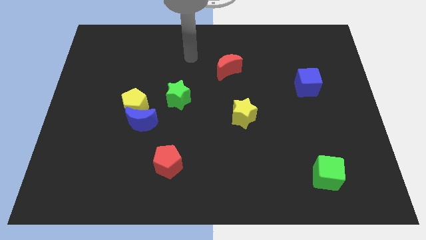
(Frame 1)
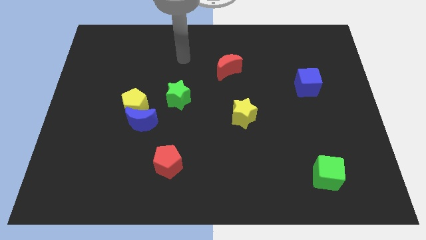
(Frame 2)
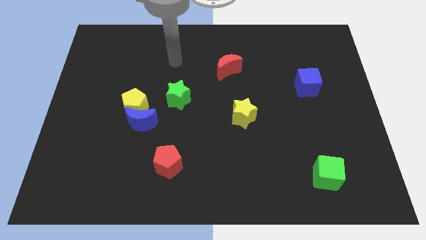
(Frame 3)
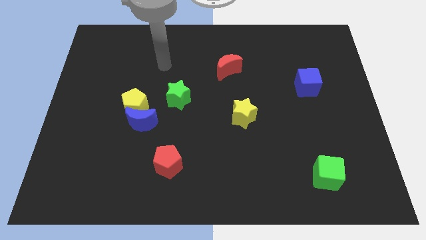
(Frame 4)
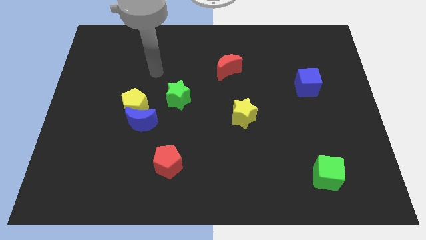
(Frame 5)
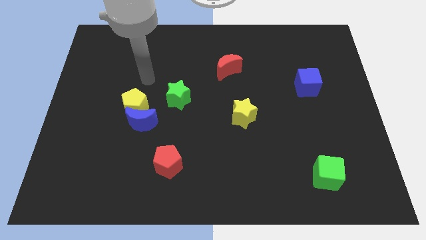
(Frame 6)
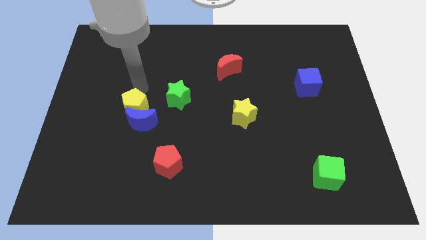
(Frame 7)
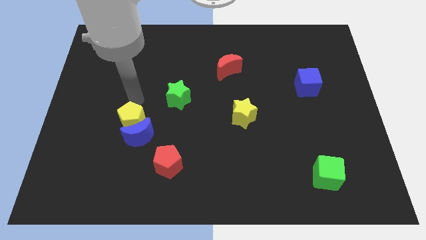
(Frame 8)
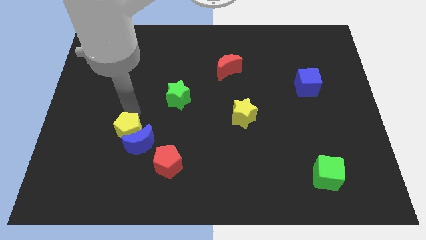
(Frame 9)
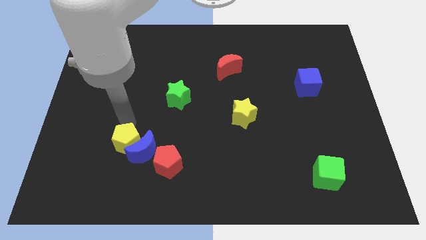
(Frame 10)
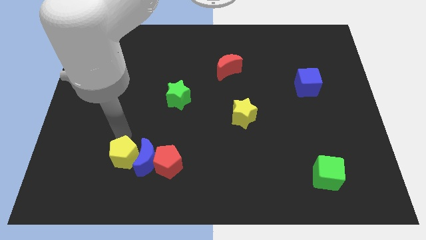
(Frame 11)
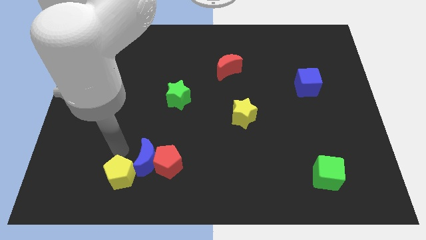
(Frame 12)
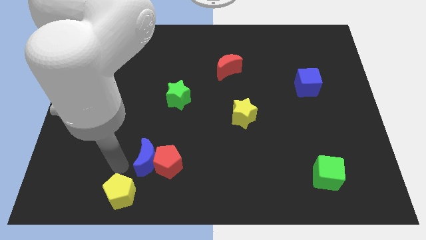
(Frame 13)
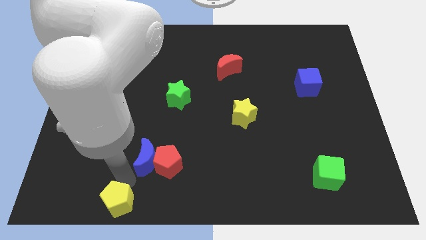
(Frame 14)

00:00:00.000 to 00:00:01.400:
move the blue moon away from the yellow pentagon

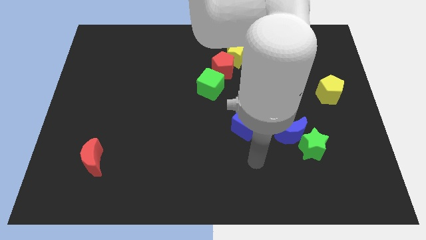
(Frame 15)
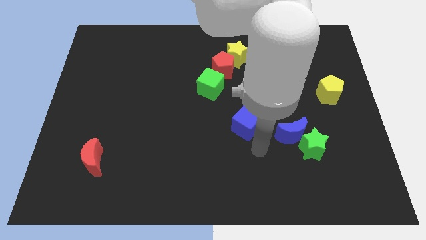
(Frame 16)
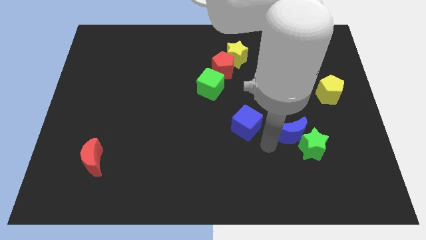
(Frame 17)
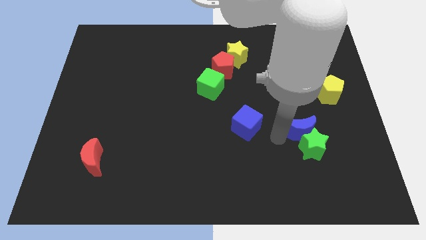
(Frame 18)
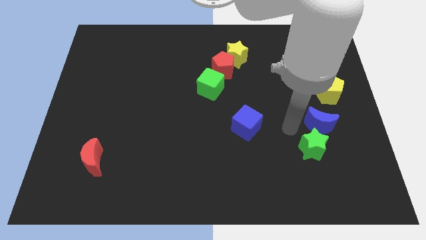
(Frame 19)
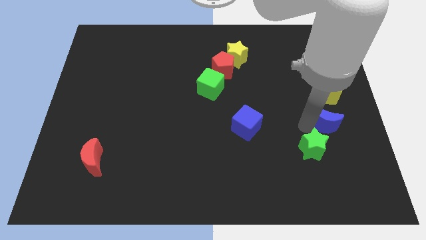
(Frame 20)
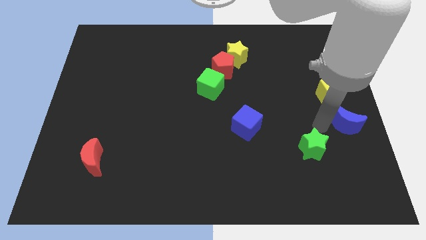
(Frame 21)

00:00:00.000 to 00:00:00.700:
move the green star away from the blue moon

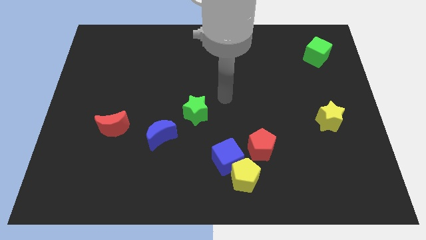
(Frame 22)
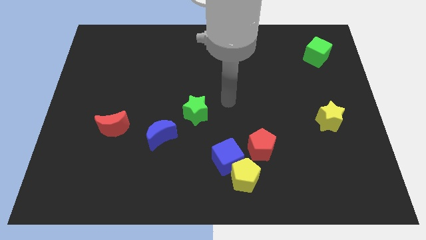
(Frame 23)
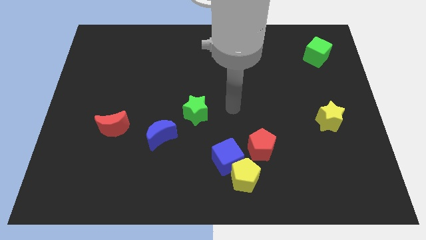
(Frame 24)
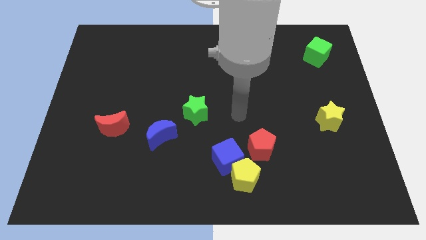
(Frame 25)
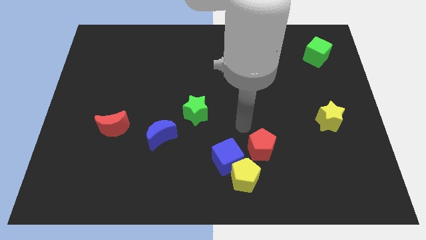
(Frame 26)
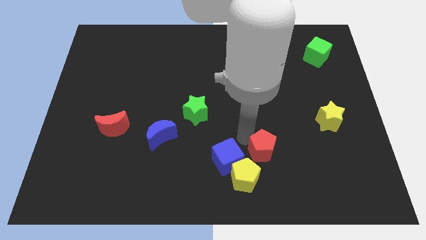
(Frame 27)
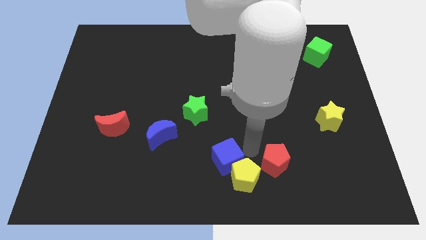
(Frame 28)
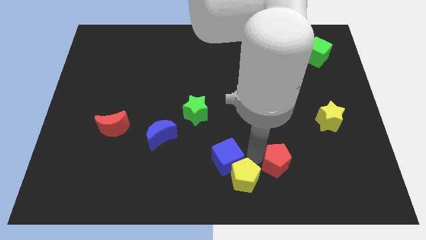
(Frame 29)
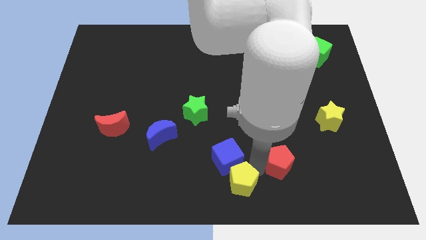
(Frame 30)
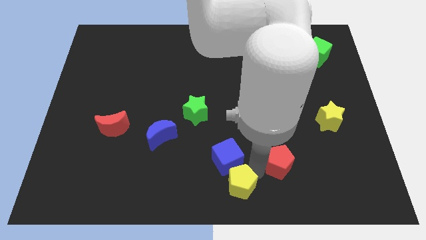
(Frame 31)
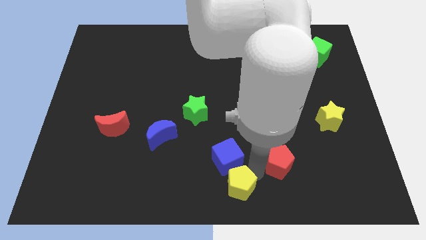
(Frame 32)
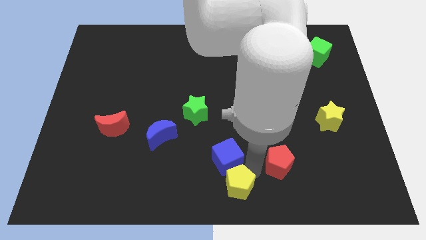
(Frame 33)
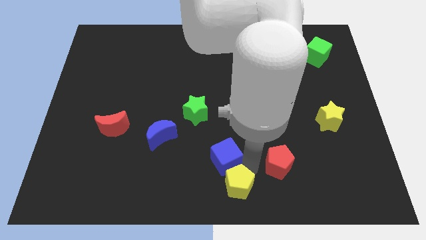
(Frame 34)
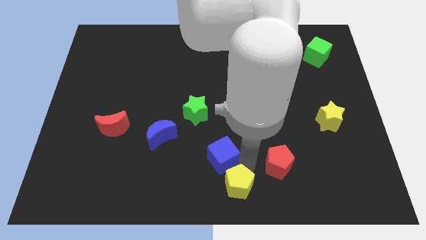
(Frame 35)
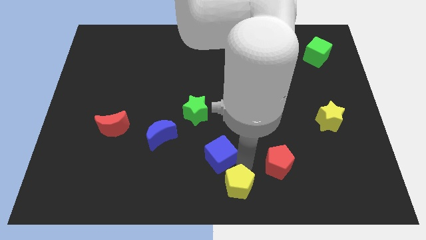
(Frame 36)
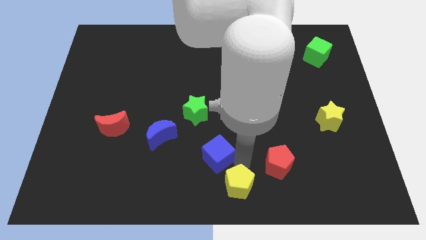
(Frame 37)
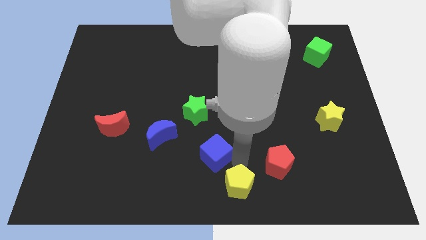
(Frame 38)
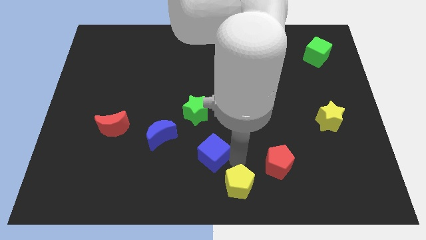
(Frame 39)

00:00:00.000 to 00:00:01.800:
pull the blue cube apart from the yellow pentagon and red pentagon

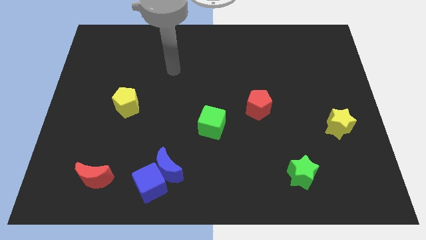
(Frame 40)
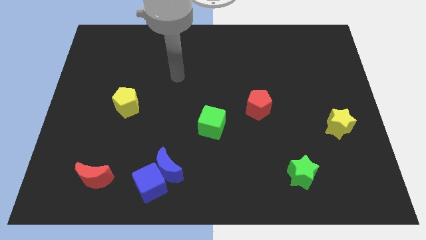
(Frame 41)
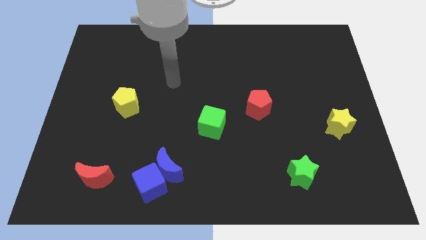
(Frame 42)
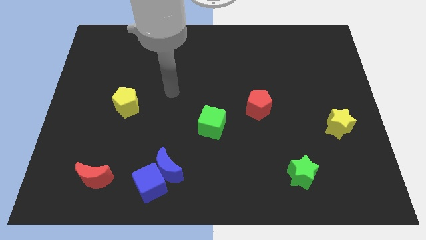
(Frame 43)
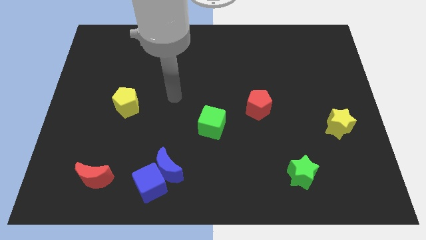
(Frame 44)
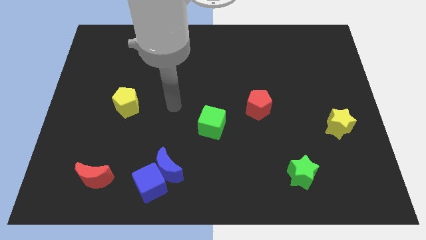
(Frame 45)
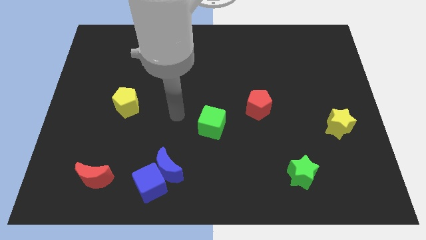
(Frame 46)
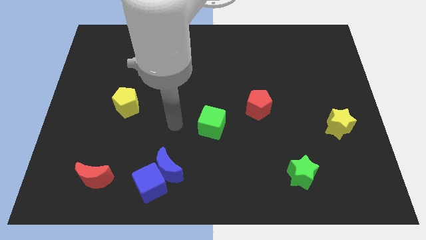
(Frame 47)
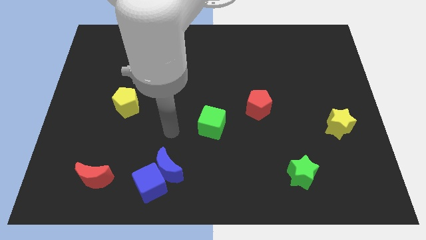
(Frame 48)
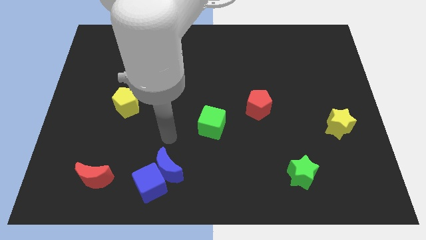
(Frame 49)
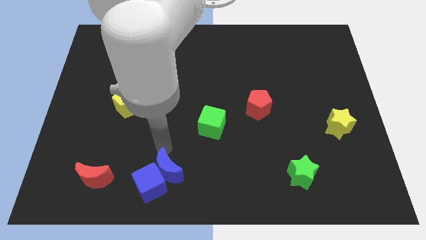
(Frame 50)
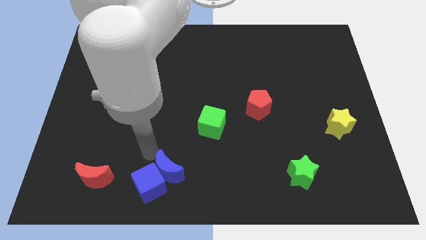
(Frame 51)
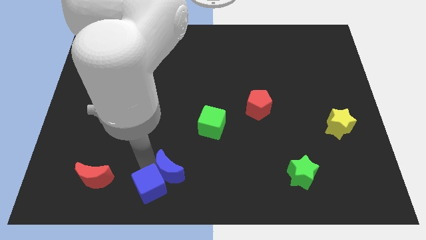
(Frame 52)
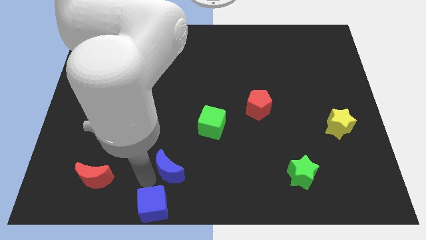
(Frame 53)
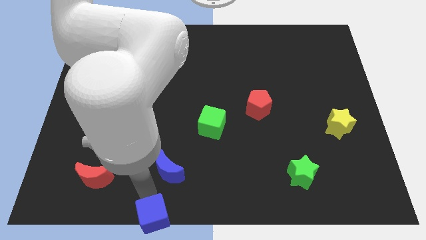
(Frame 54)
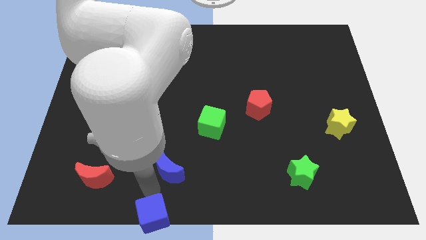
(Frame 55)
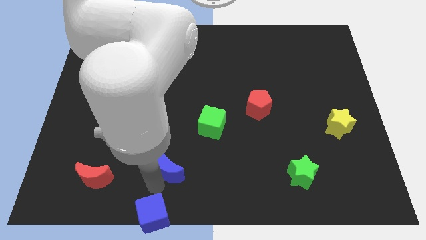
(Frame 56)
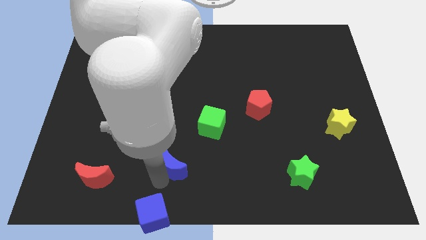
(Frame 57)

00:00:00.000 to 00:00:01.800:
separate the blue moon from the blue cube

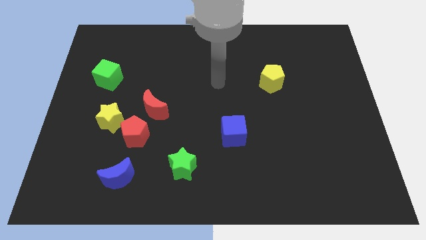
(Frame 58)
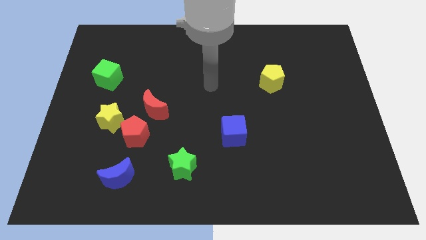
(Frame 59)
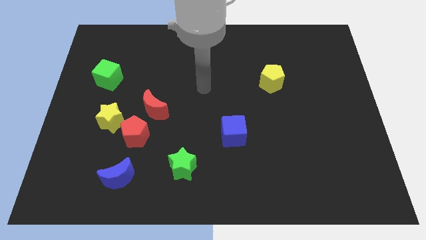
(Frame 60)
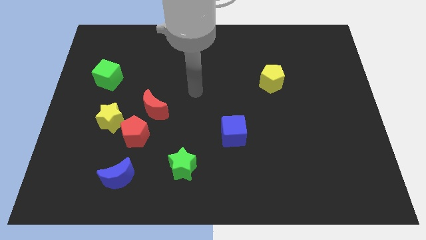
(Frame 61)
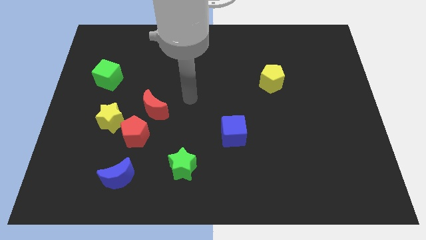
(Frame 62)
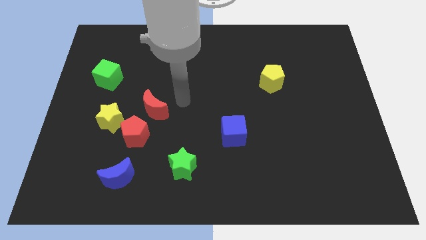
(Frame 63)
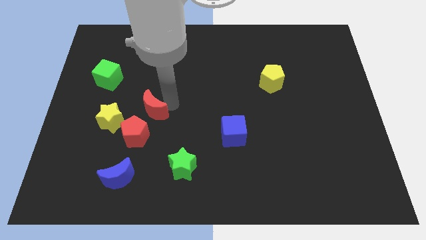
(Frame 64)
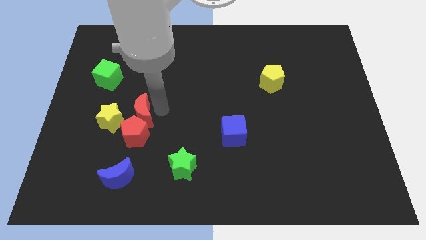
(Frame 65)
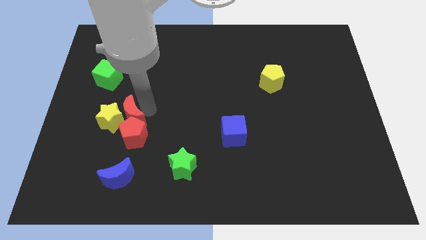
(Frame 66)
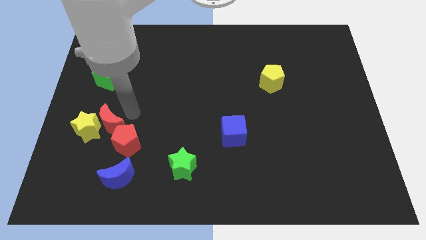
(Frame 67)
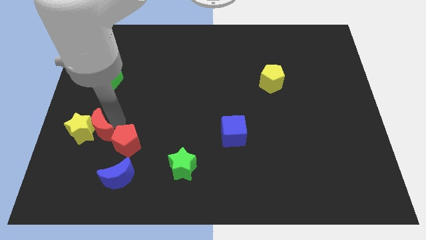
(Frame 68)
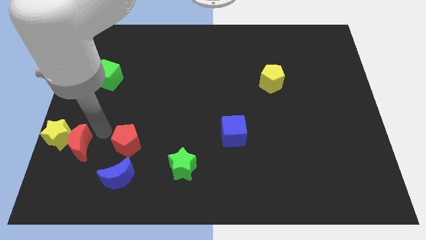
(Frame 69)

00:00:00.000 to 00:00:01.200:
pull the red pentagon apart from the yellow star and red moon

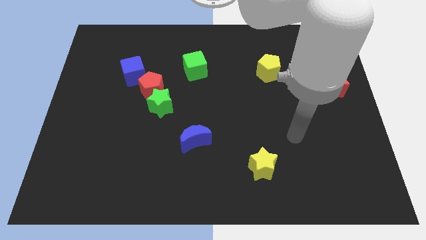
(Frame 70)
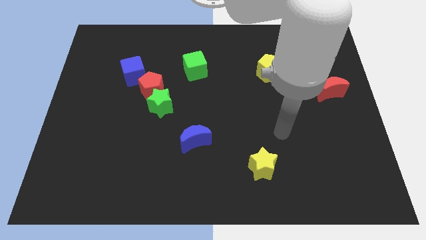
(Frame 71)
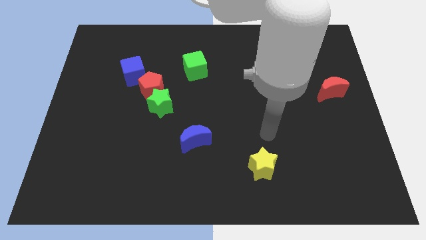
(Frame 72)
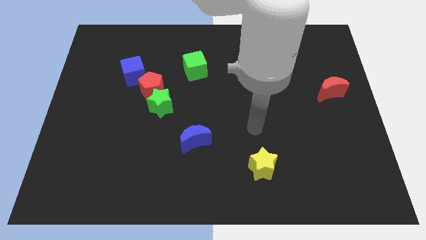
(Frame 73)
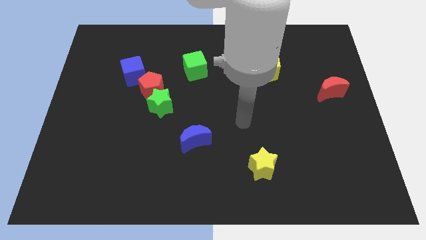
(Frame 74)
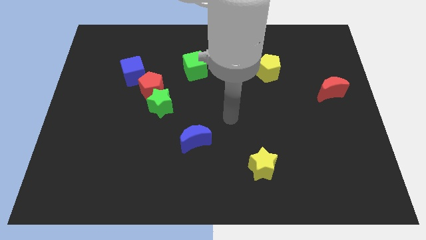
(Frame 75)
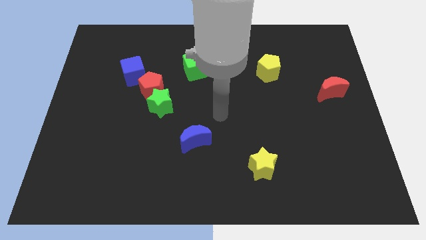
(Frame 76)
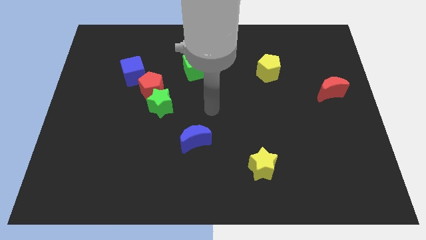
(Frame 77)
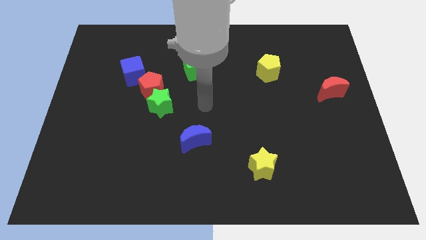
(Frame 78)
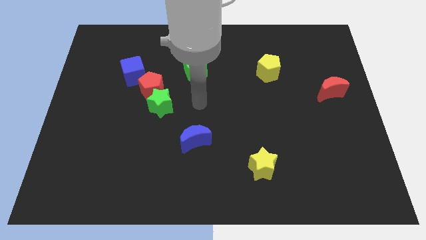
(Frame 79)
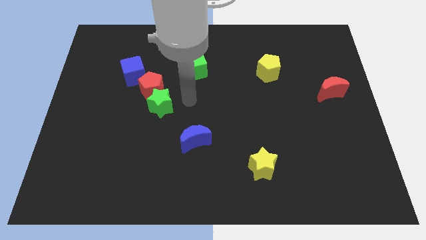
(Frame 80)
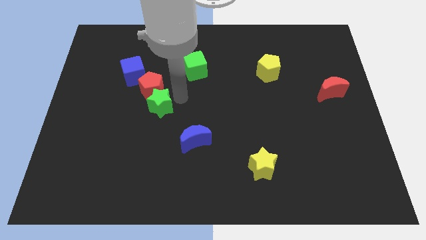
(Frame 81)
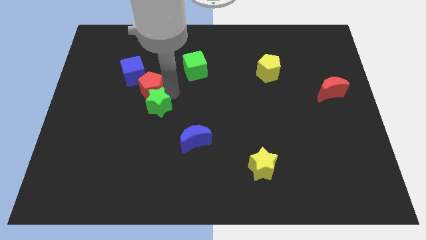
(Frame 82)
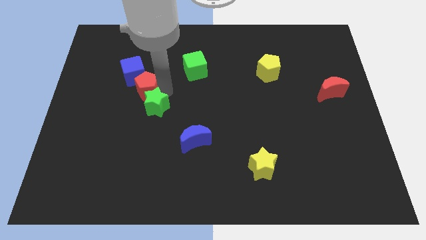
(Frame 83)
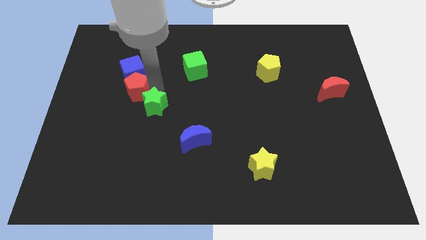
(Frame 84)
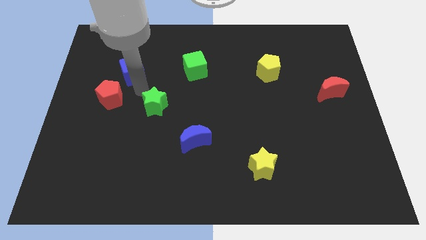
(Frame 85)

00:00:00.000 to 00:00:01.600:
pull the green star apart from the red pentagon

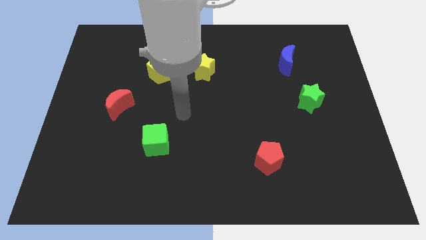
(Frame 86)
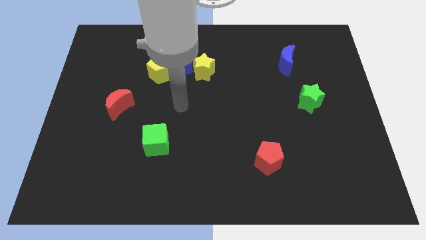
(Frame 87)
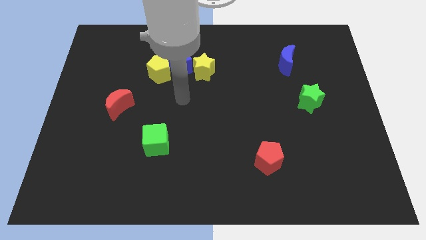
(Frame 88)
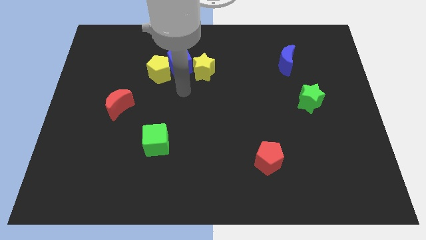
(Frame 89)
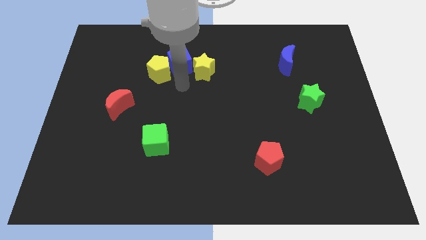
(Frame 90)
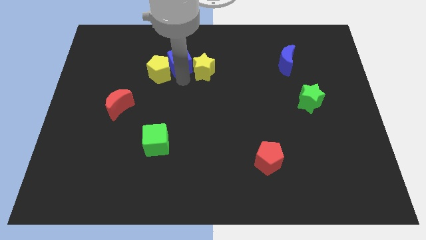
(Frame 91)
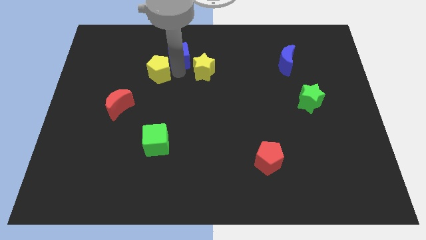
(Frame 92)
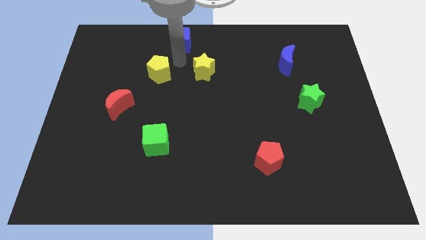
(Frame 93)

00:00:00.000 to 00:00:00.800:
move the yellow pentagon away from the blue cube
